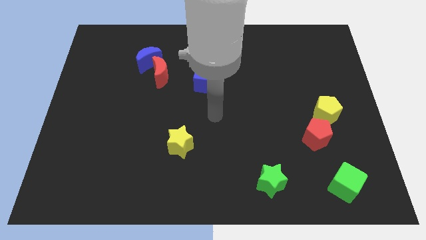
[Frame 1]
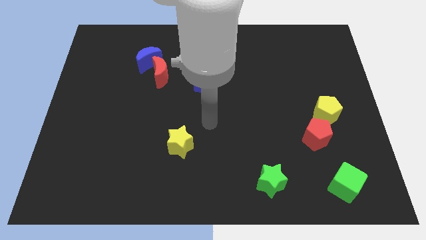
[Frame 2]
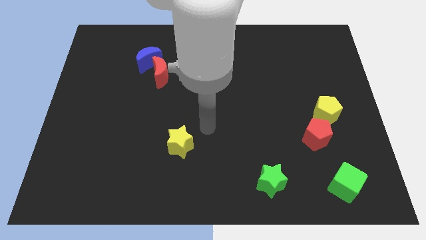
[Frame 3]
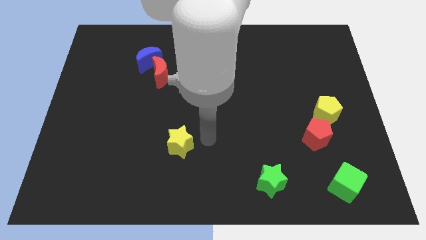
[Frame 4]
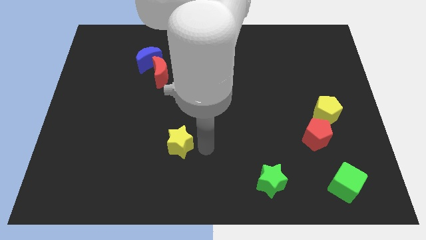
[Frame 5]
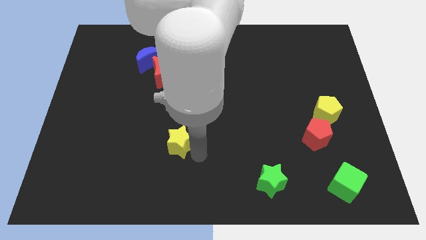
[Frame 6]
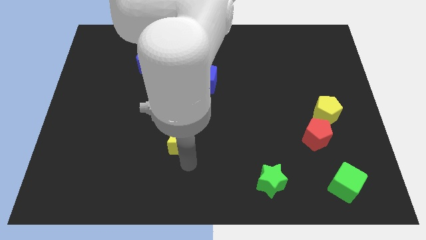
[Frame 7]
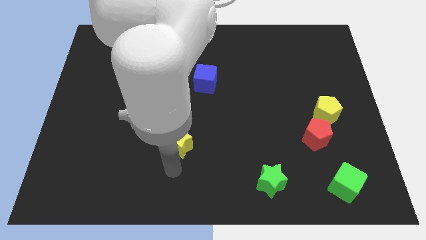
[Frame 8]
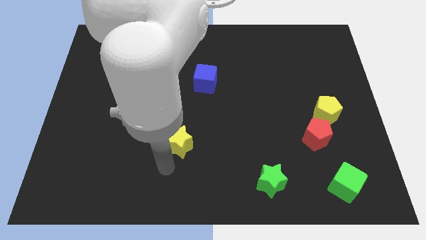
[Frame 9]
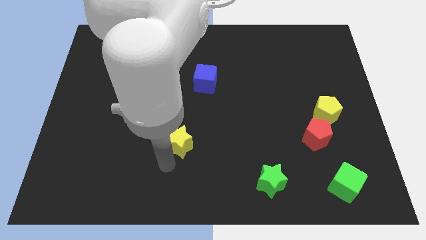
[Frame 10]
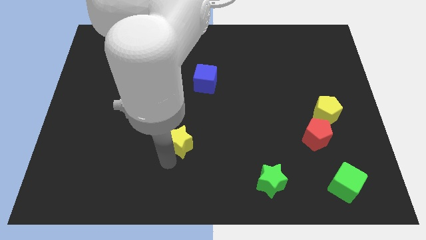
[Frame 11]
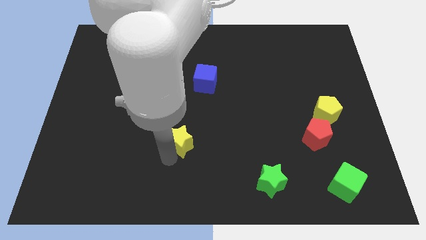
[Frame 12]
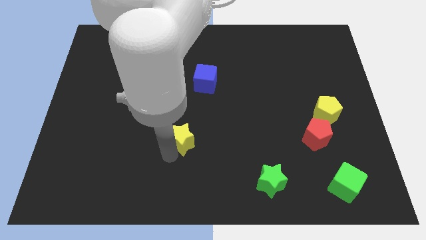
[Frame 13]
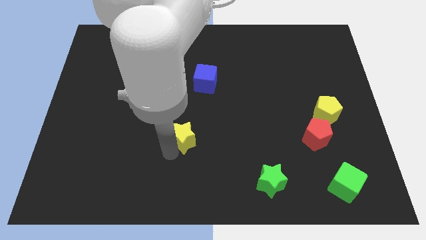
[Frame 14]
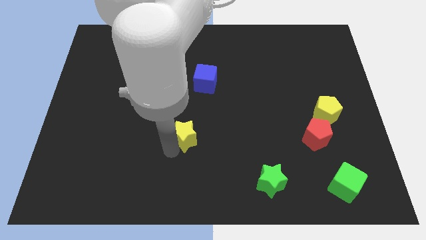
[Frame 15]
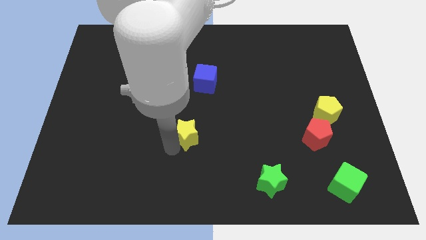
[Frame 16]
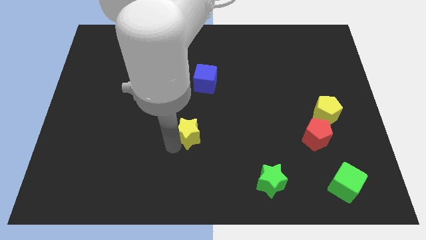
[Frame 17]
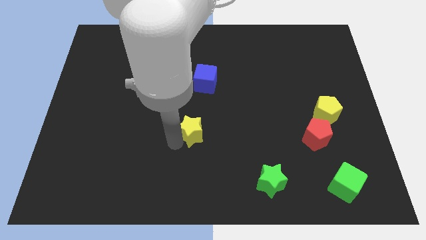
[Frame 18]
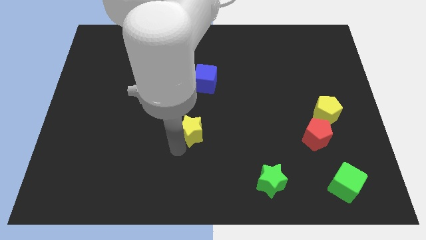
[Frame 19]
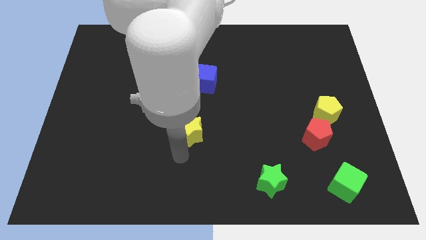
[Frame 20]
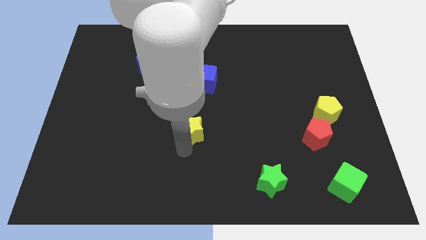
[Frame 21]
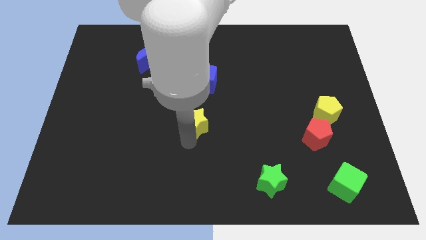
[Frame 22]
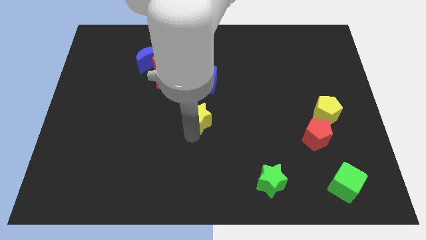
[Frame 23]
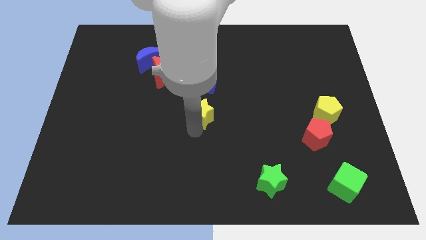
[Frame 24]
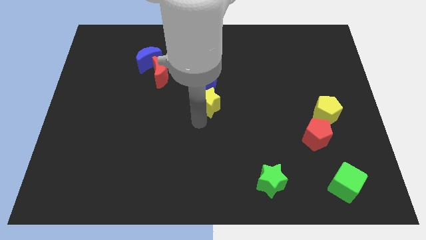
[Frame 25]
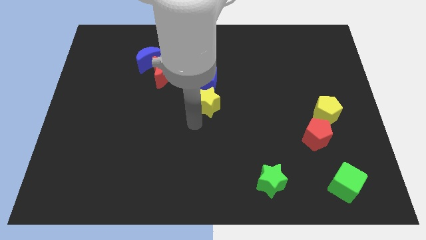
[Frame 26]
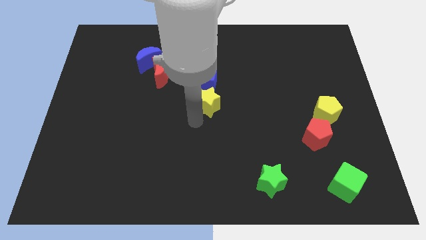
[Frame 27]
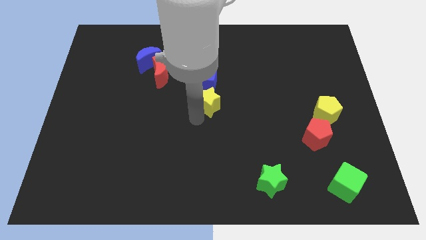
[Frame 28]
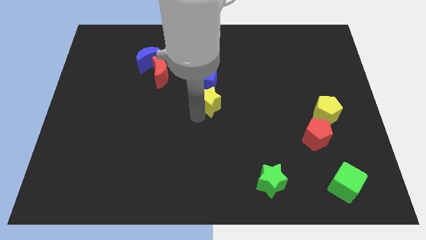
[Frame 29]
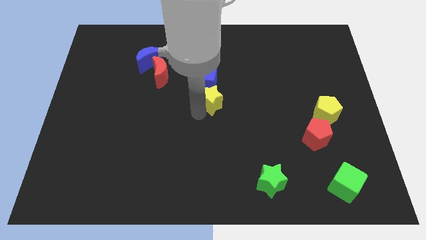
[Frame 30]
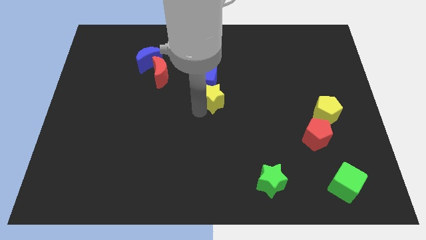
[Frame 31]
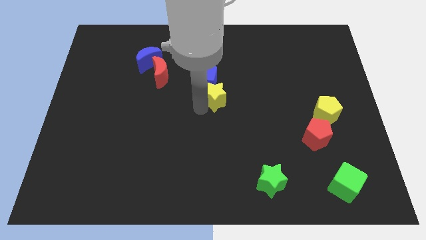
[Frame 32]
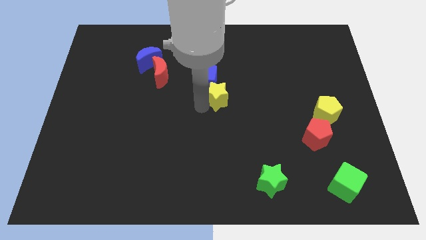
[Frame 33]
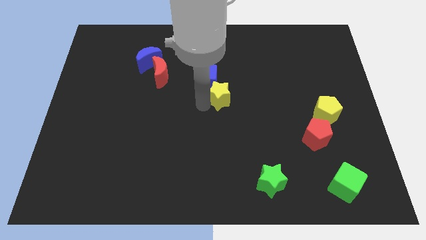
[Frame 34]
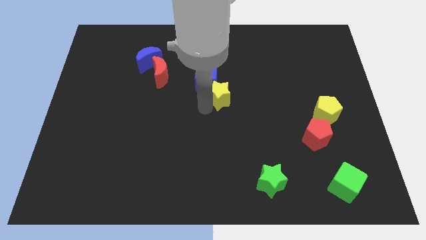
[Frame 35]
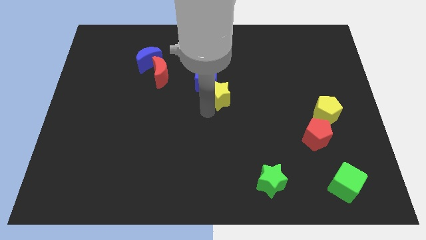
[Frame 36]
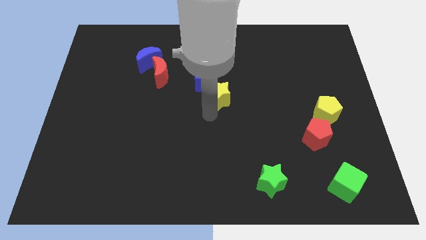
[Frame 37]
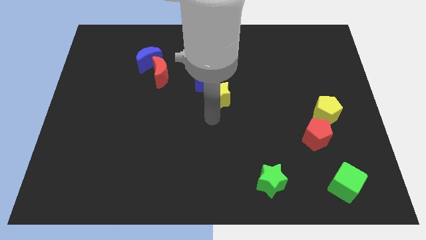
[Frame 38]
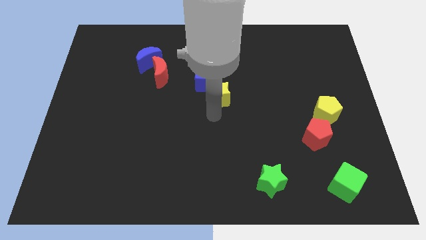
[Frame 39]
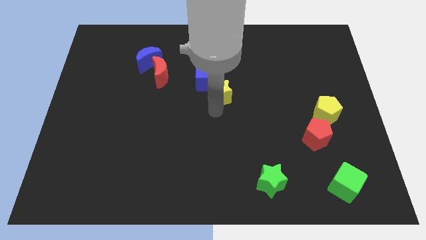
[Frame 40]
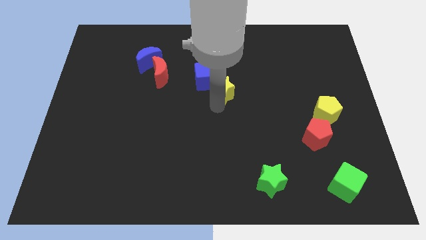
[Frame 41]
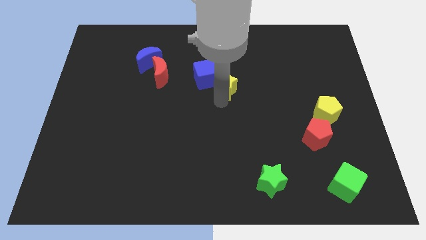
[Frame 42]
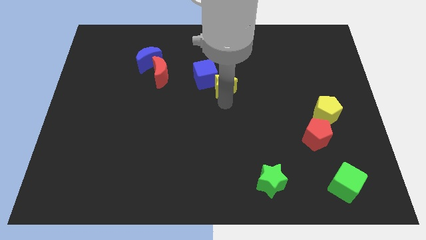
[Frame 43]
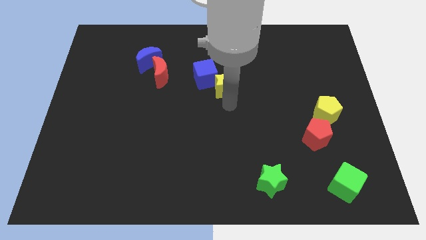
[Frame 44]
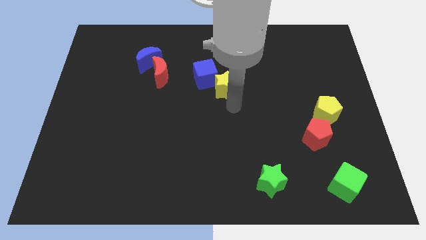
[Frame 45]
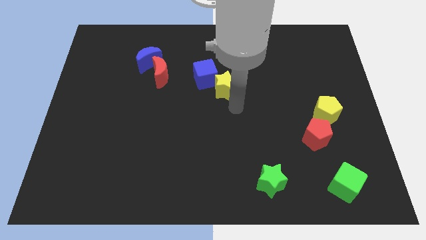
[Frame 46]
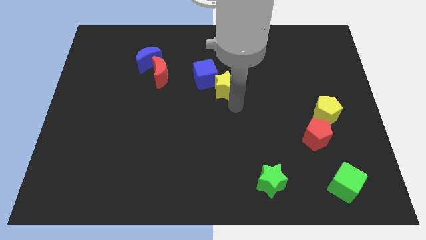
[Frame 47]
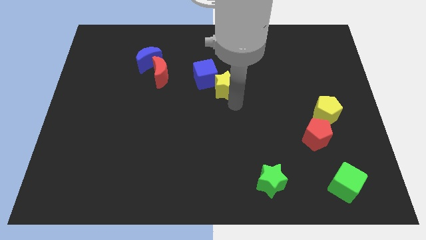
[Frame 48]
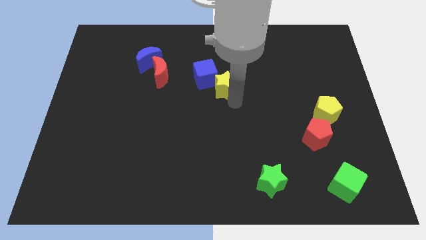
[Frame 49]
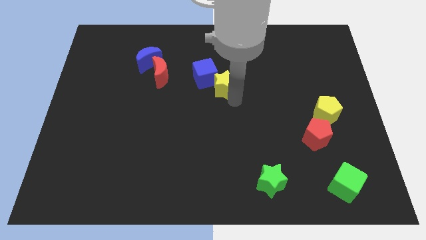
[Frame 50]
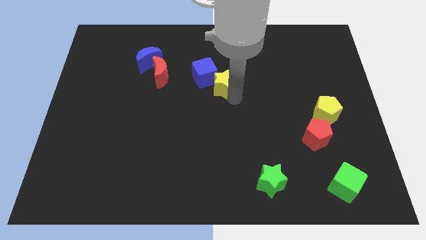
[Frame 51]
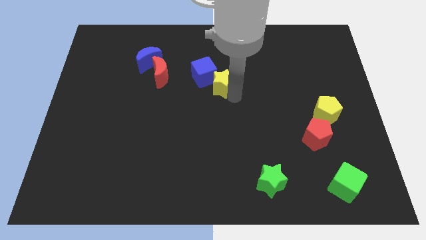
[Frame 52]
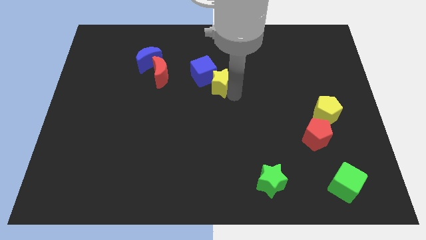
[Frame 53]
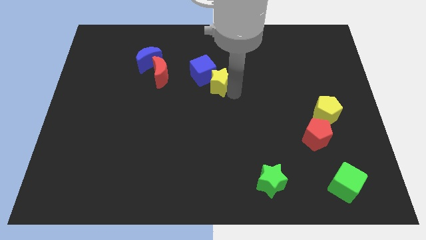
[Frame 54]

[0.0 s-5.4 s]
put the yellow star to the right of the red moon

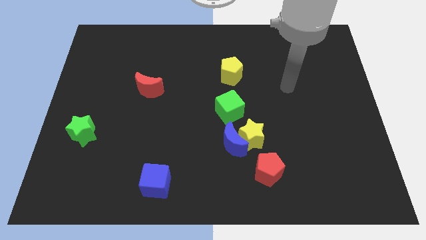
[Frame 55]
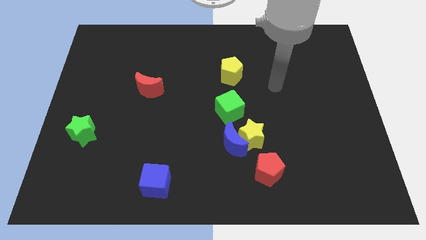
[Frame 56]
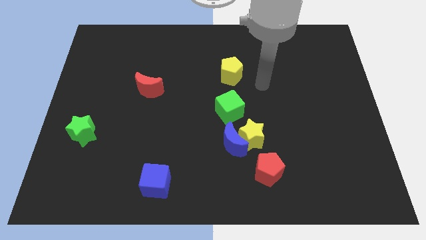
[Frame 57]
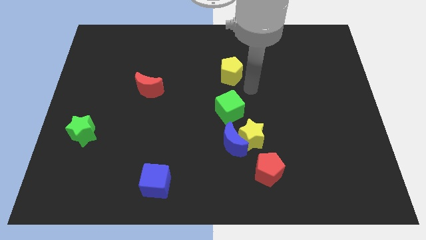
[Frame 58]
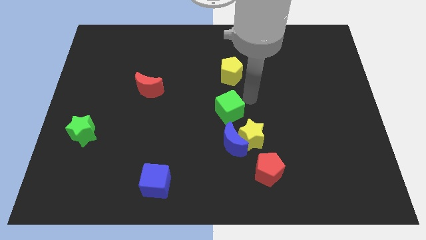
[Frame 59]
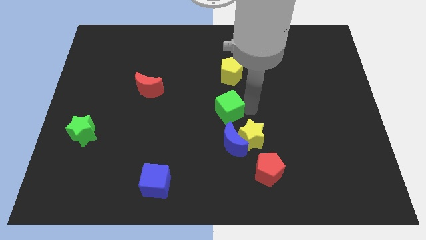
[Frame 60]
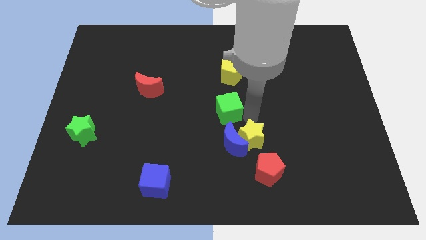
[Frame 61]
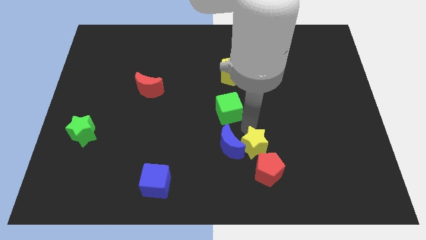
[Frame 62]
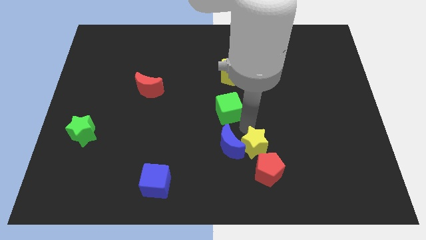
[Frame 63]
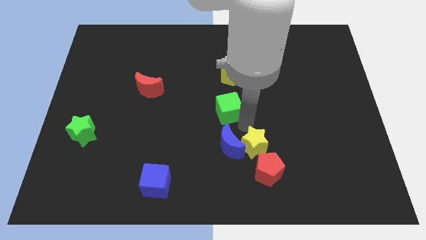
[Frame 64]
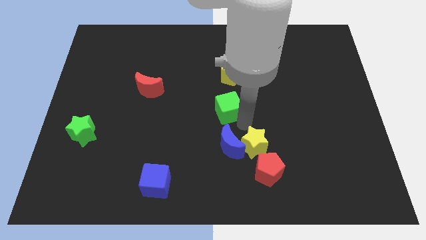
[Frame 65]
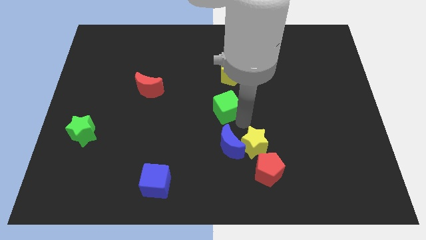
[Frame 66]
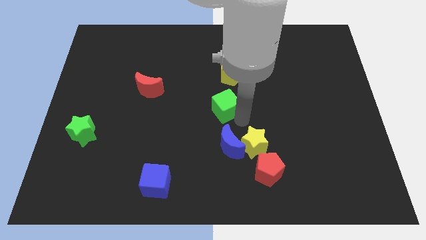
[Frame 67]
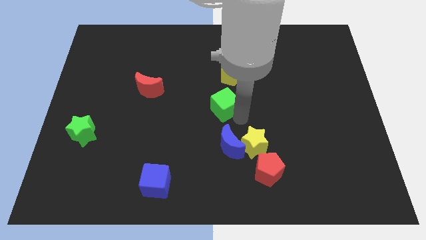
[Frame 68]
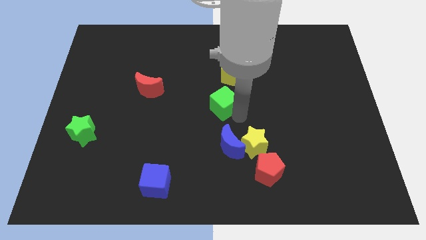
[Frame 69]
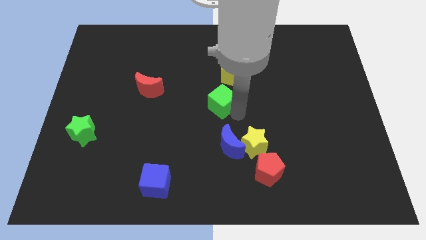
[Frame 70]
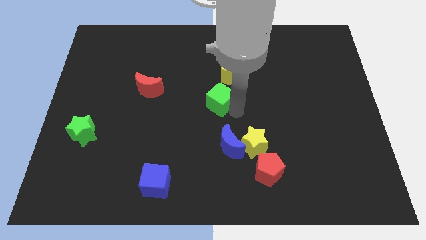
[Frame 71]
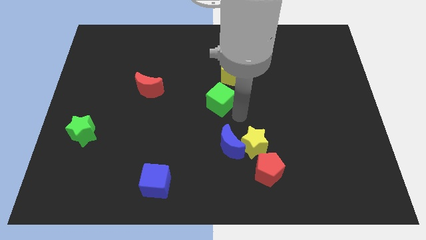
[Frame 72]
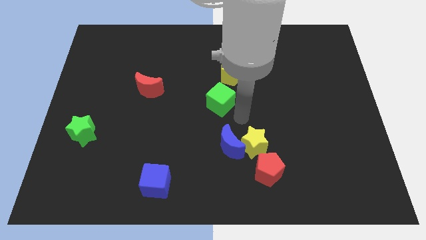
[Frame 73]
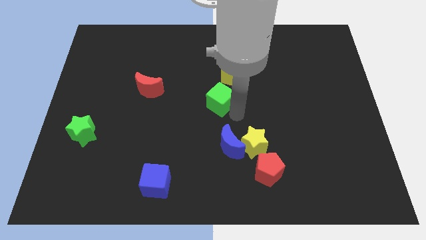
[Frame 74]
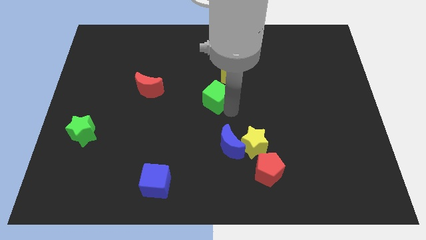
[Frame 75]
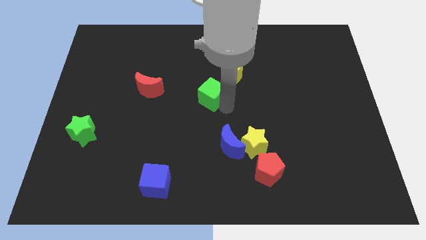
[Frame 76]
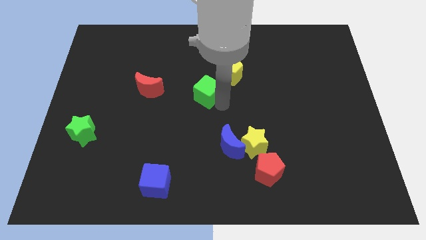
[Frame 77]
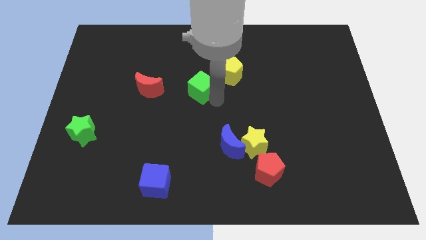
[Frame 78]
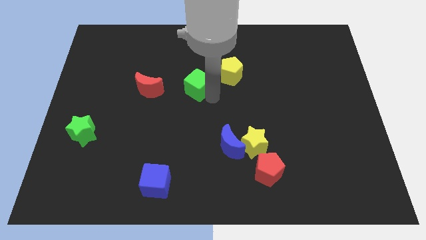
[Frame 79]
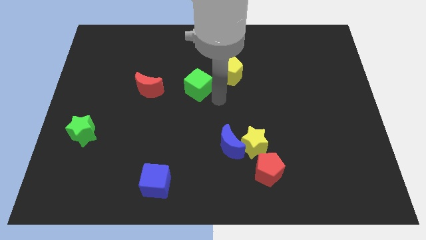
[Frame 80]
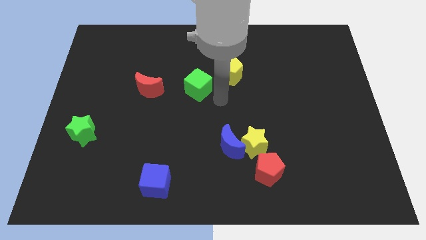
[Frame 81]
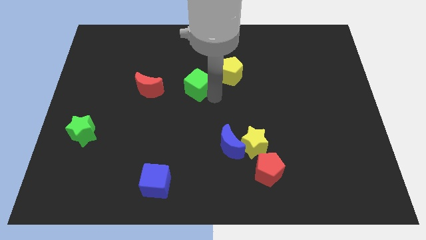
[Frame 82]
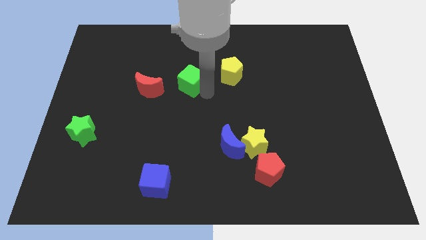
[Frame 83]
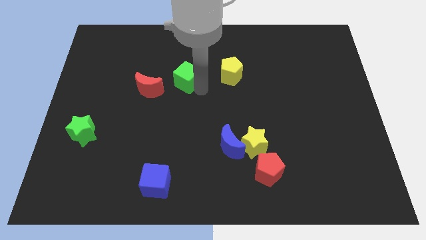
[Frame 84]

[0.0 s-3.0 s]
push the green cube to the top right side of the red moon
